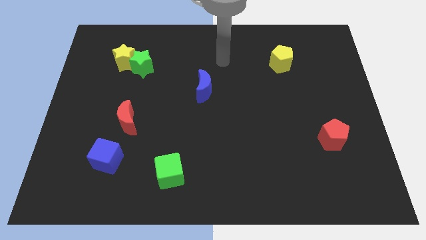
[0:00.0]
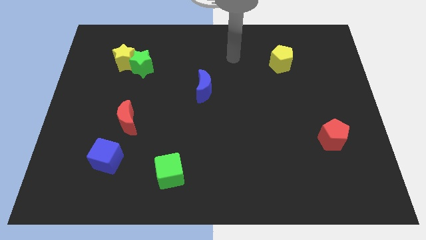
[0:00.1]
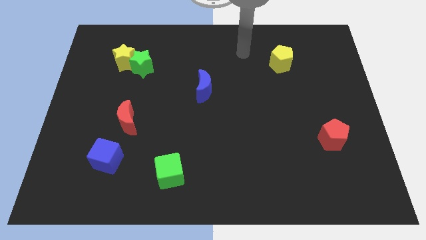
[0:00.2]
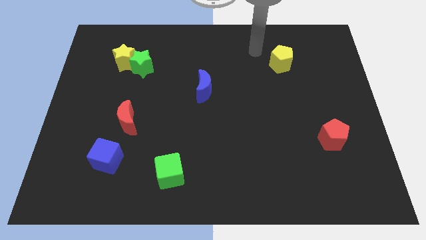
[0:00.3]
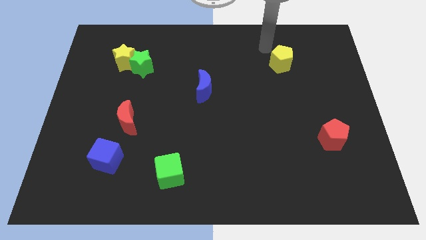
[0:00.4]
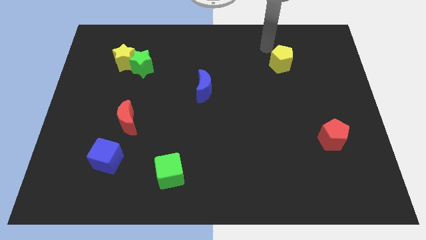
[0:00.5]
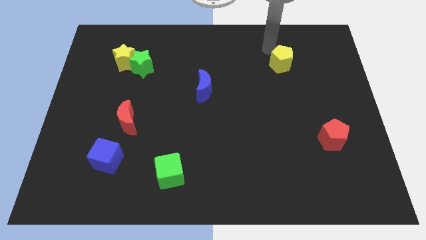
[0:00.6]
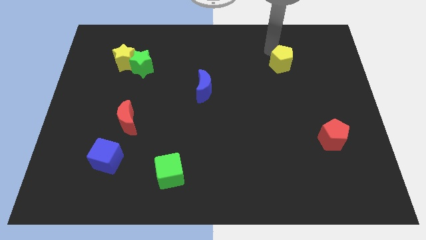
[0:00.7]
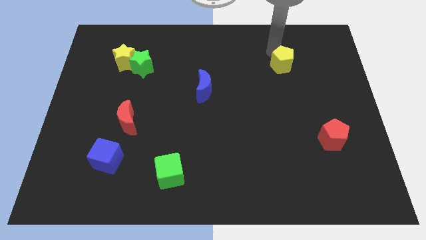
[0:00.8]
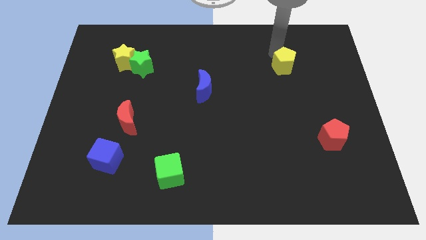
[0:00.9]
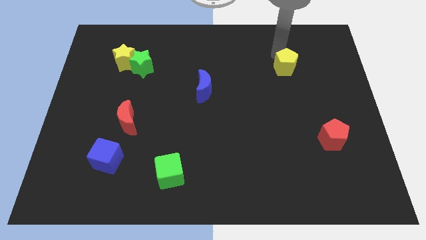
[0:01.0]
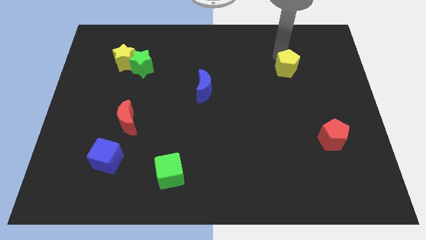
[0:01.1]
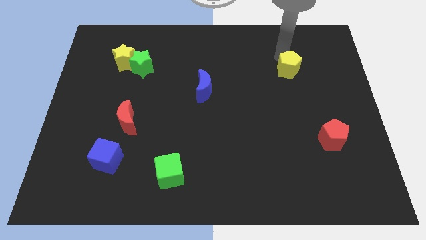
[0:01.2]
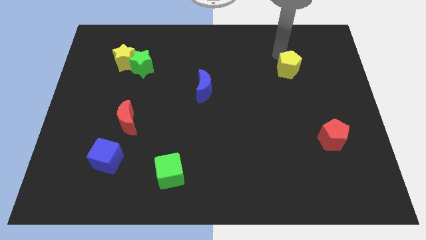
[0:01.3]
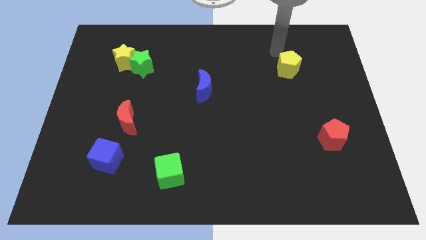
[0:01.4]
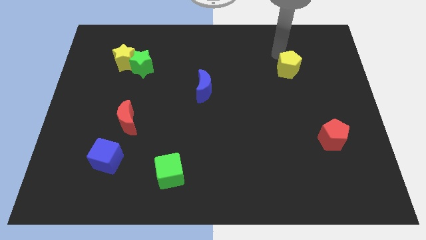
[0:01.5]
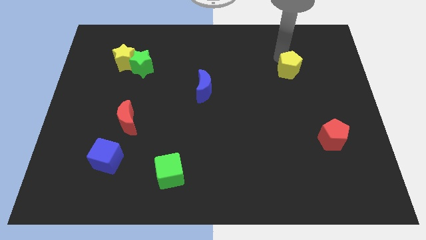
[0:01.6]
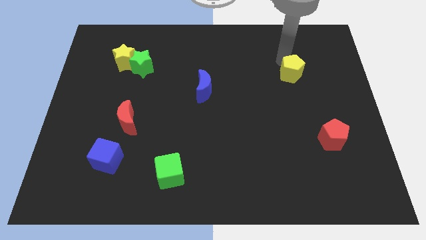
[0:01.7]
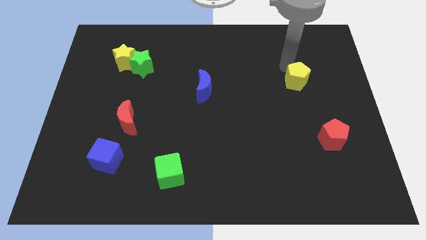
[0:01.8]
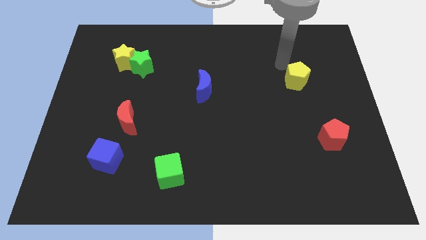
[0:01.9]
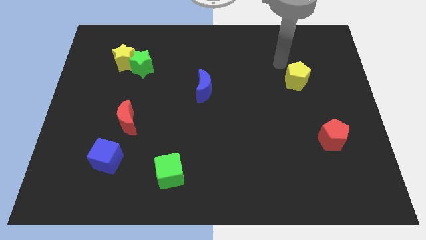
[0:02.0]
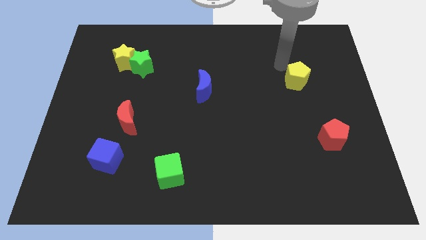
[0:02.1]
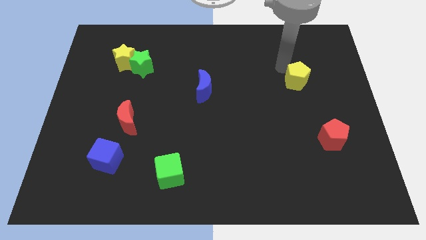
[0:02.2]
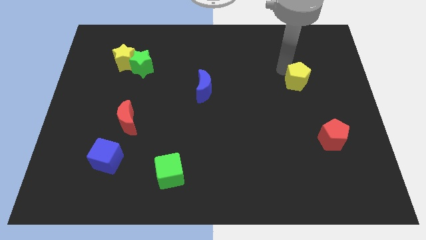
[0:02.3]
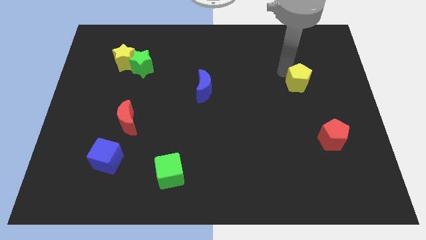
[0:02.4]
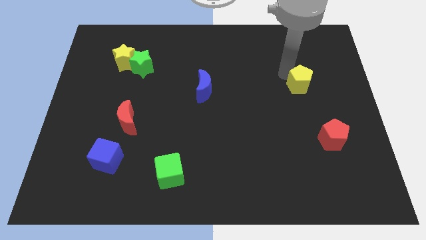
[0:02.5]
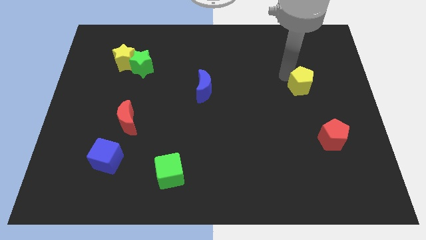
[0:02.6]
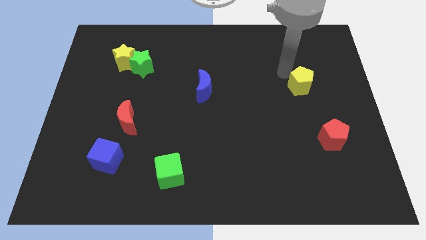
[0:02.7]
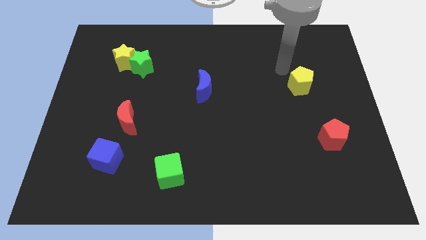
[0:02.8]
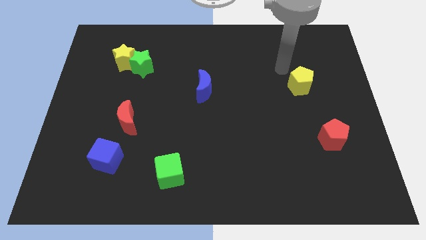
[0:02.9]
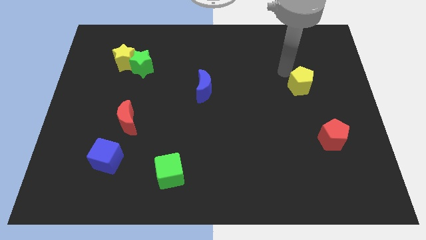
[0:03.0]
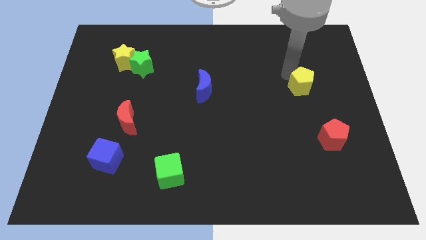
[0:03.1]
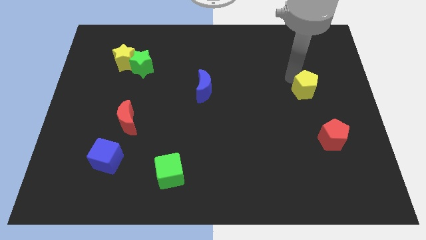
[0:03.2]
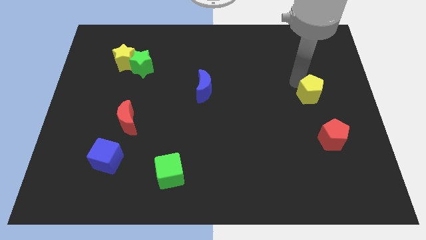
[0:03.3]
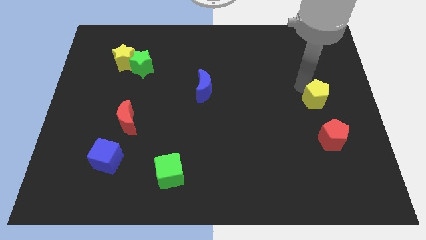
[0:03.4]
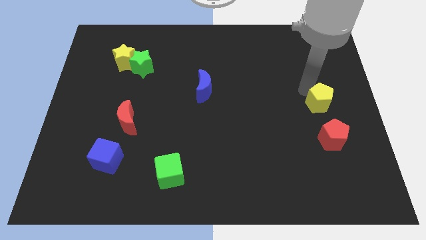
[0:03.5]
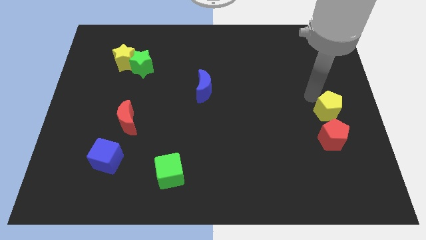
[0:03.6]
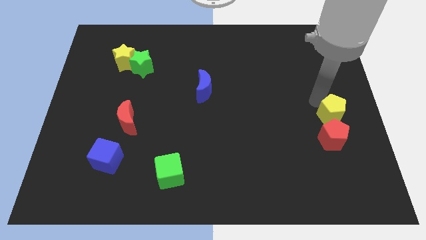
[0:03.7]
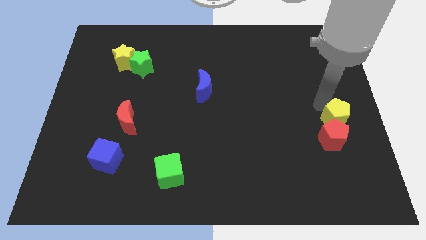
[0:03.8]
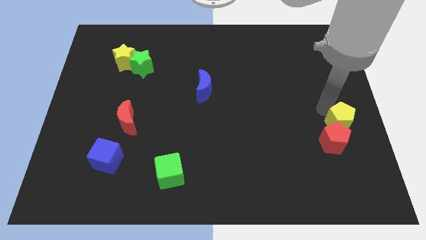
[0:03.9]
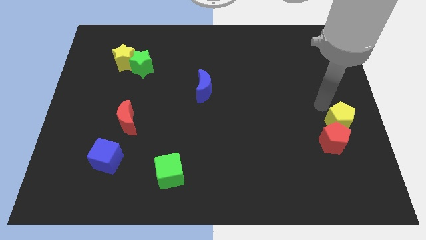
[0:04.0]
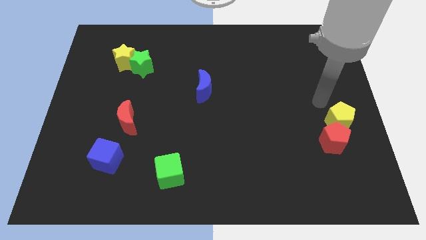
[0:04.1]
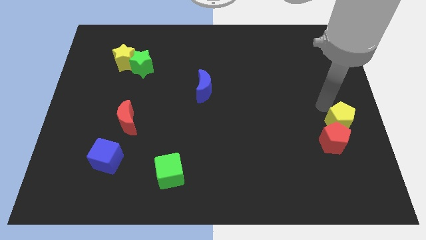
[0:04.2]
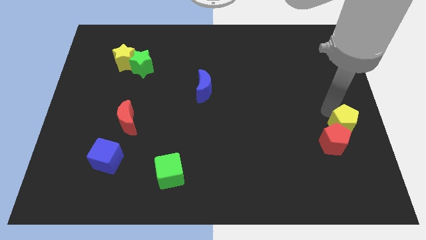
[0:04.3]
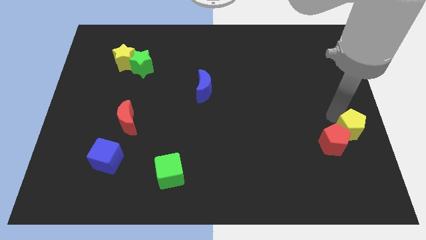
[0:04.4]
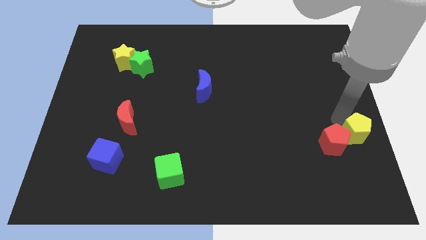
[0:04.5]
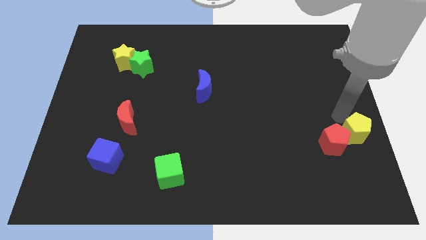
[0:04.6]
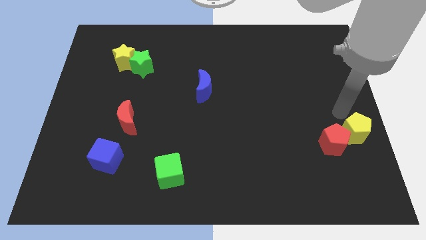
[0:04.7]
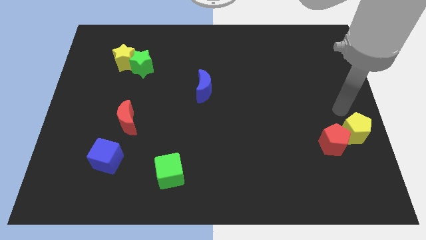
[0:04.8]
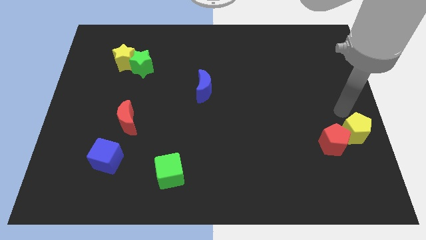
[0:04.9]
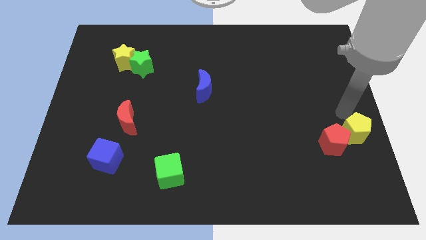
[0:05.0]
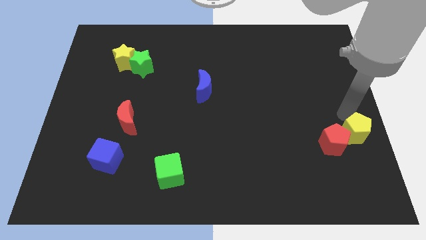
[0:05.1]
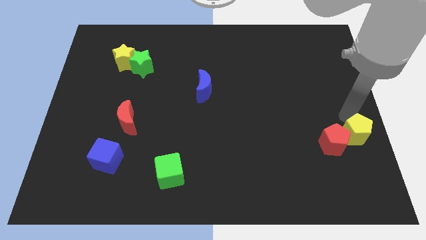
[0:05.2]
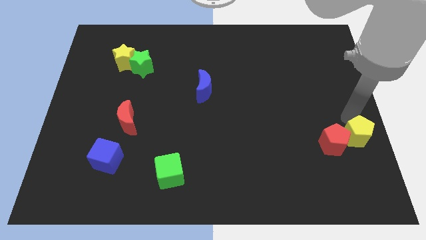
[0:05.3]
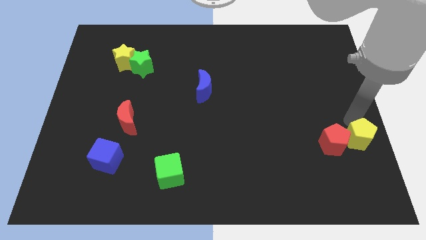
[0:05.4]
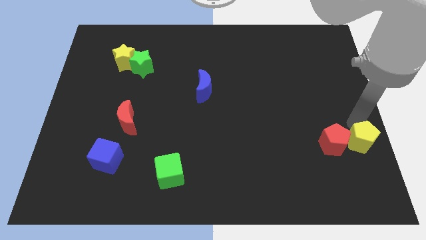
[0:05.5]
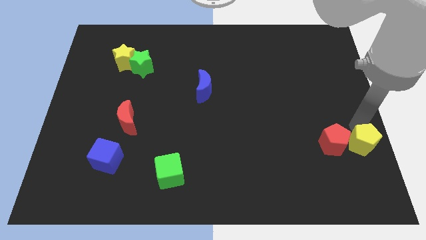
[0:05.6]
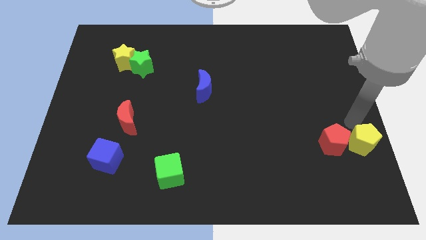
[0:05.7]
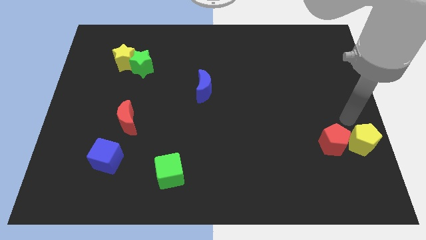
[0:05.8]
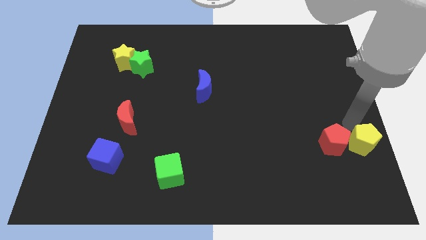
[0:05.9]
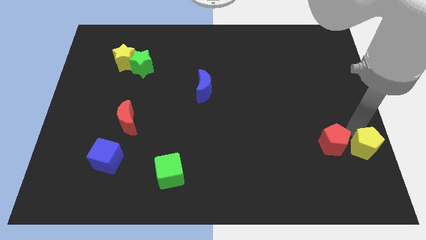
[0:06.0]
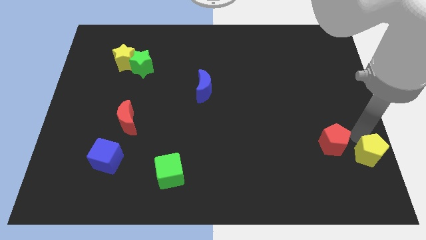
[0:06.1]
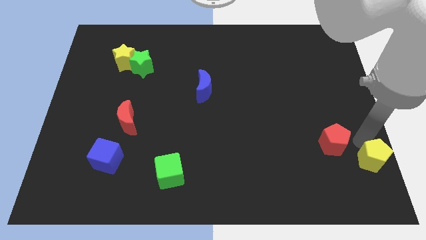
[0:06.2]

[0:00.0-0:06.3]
slide the yellow pentagon to the bottom right of the board

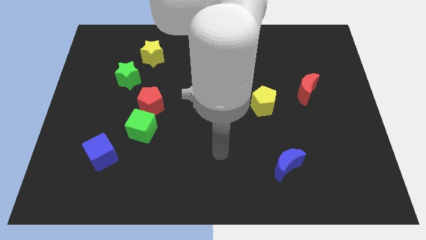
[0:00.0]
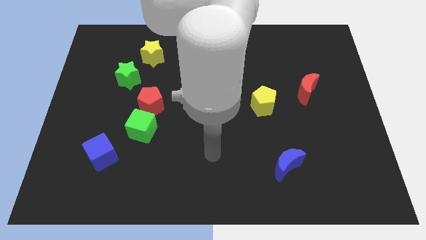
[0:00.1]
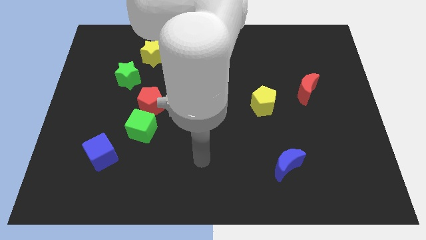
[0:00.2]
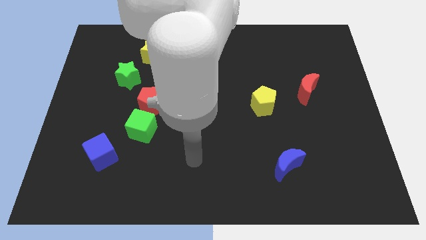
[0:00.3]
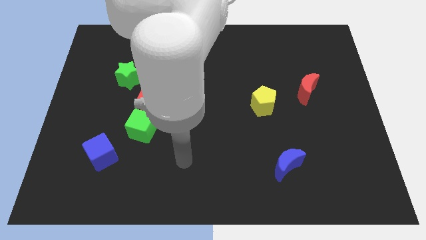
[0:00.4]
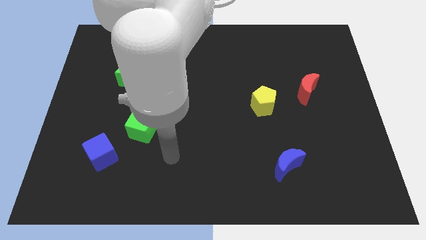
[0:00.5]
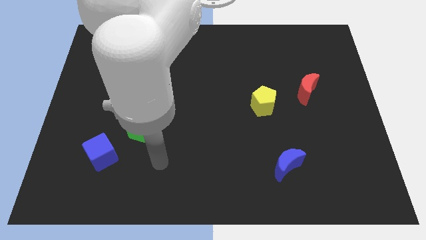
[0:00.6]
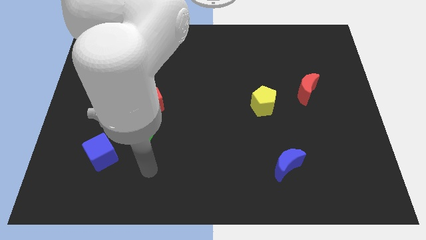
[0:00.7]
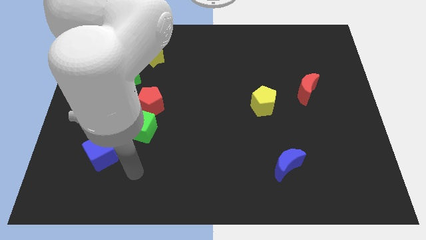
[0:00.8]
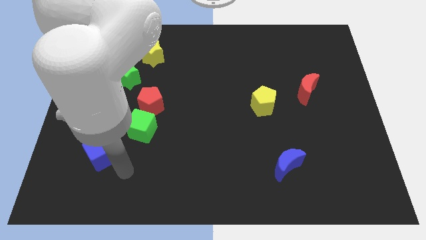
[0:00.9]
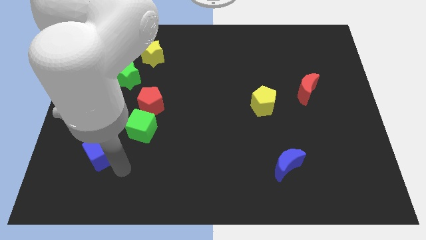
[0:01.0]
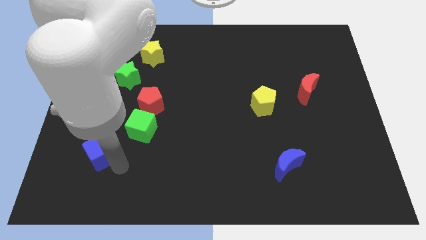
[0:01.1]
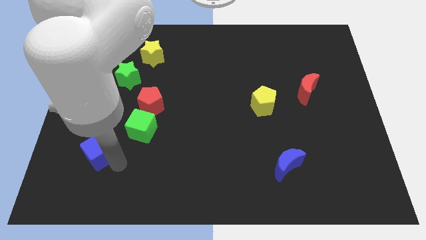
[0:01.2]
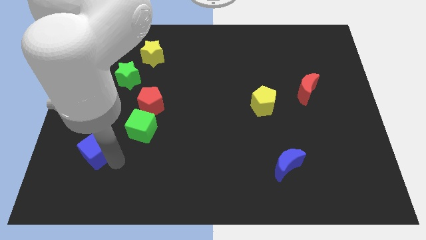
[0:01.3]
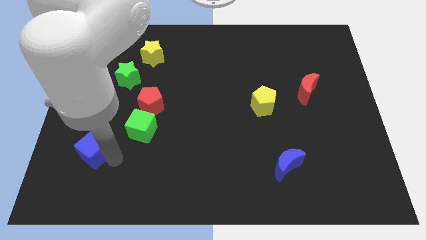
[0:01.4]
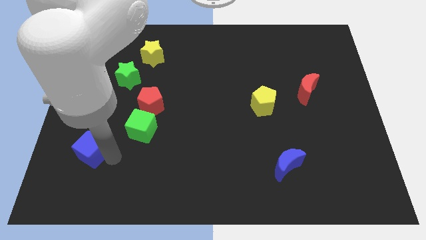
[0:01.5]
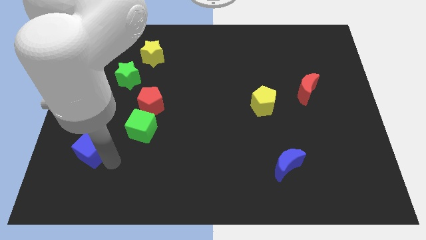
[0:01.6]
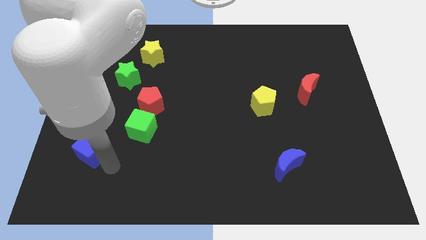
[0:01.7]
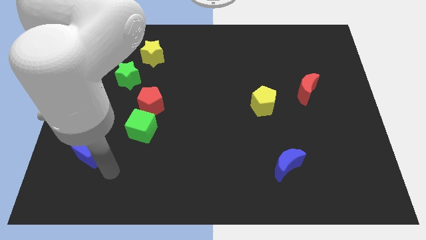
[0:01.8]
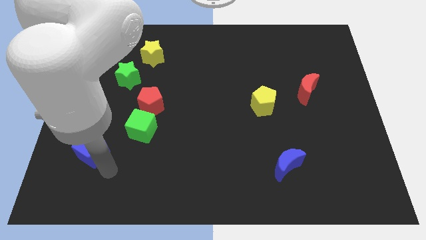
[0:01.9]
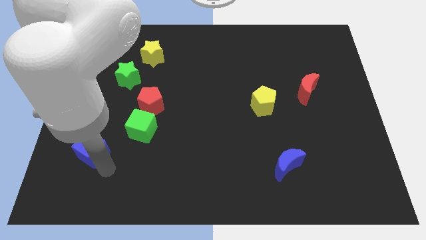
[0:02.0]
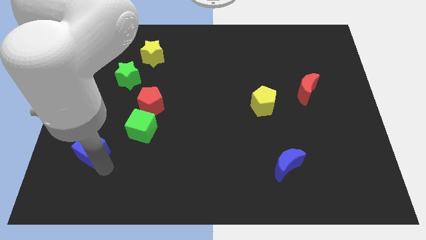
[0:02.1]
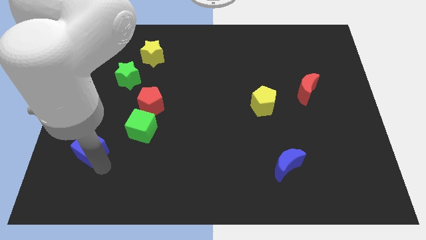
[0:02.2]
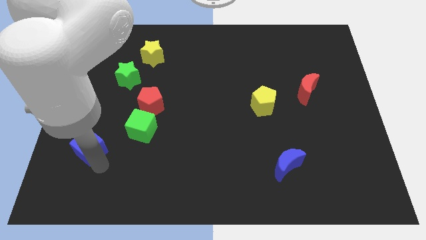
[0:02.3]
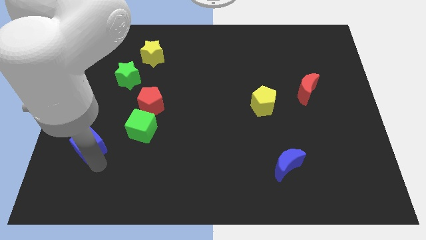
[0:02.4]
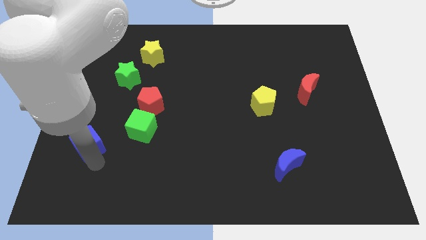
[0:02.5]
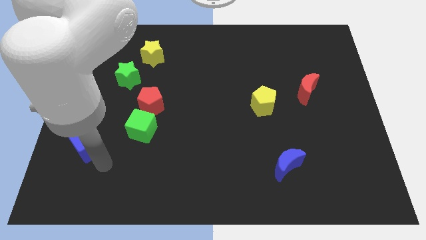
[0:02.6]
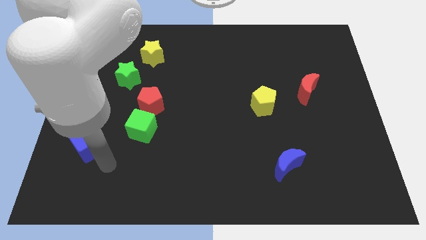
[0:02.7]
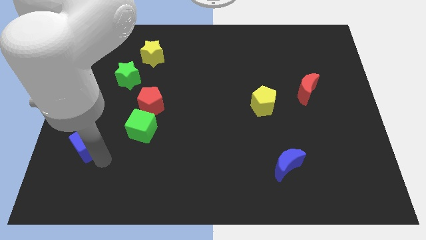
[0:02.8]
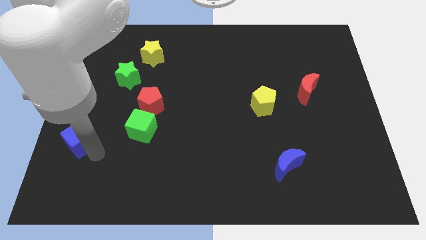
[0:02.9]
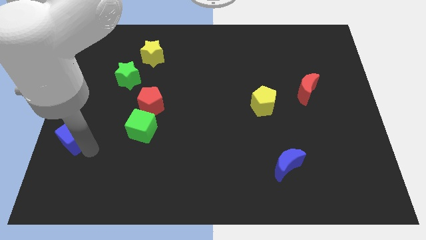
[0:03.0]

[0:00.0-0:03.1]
move the blue cube to the center left
